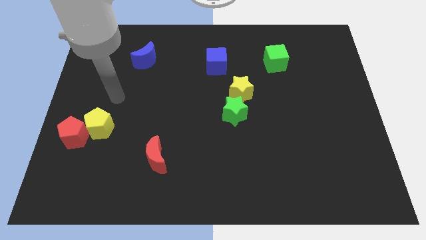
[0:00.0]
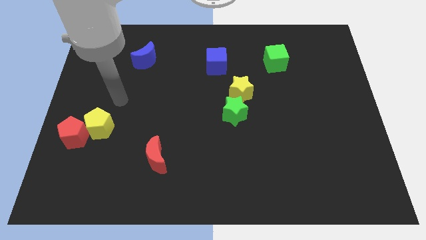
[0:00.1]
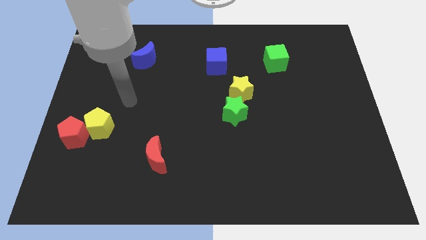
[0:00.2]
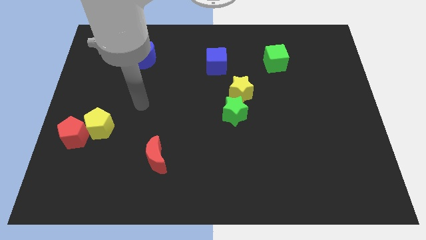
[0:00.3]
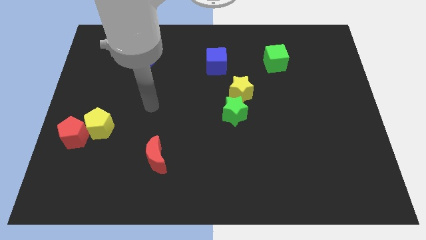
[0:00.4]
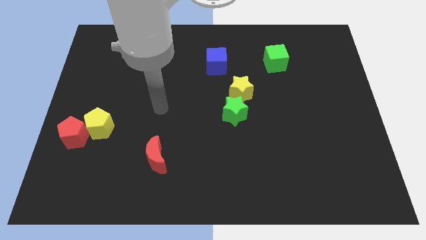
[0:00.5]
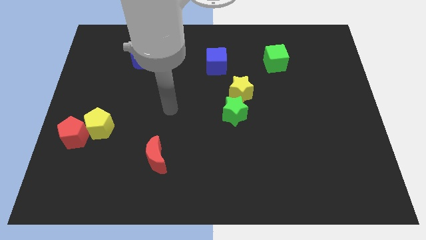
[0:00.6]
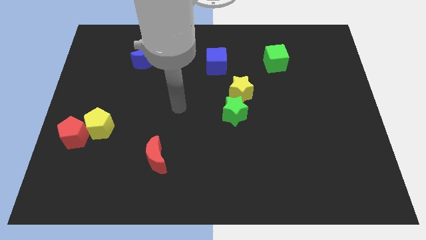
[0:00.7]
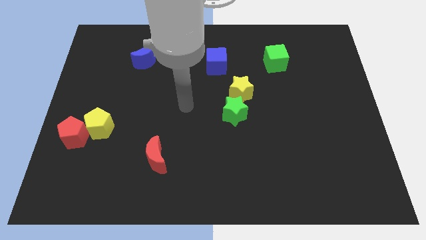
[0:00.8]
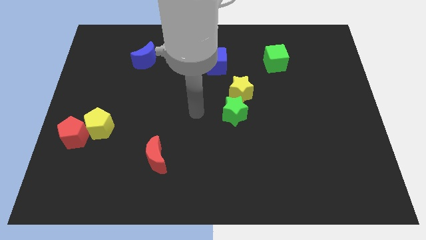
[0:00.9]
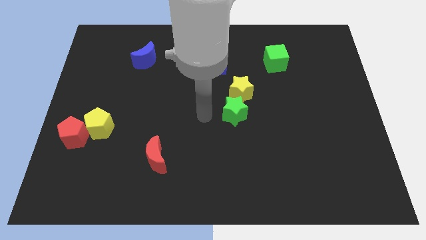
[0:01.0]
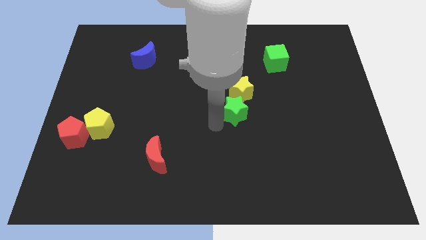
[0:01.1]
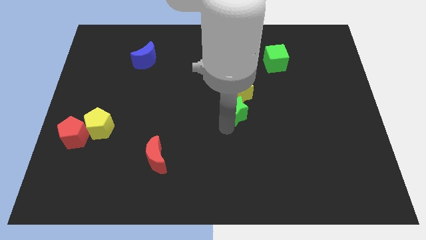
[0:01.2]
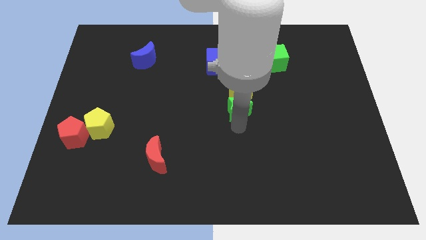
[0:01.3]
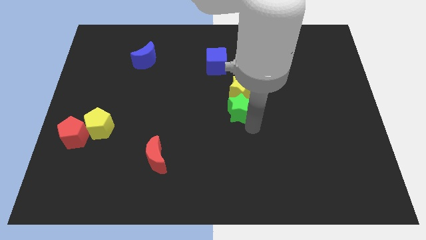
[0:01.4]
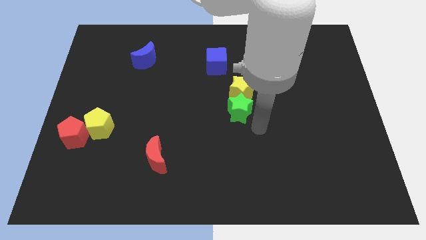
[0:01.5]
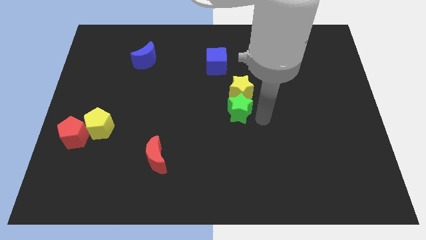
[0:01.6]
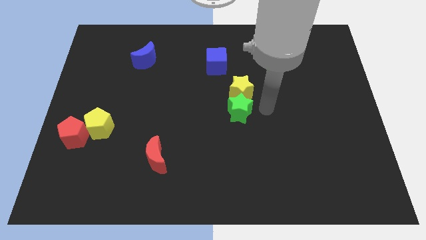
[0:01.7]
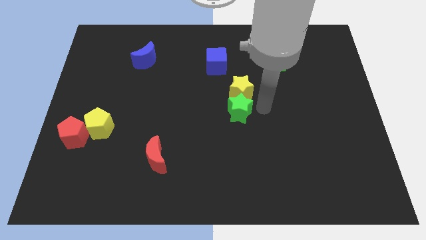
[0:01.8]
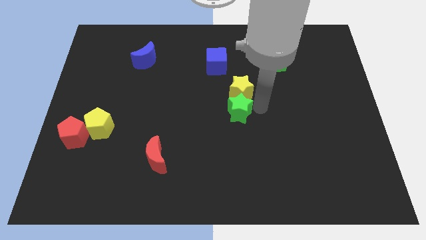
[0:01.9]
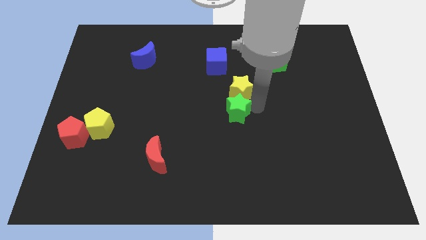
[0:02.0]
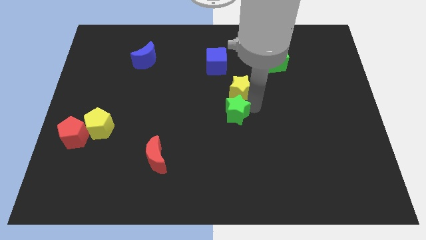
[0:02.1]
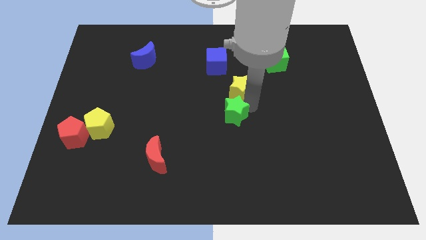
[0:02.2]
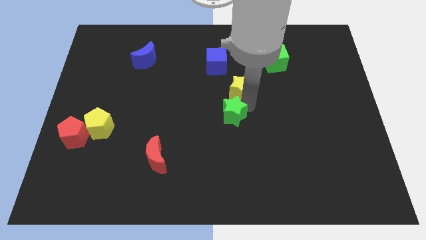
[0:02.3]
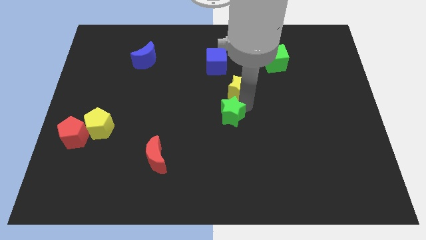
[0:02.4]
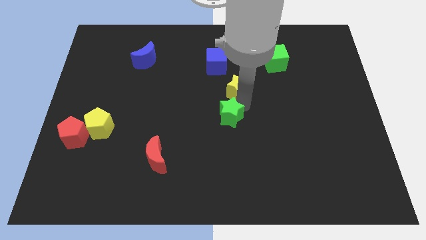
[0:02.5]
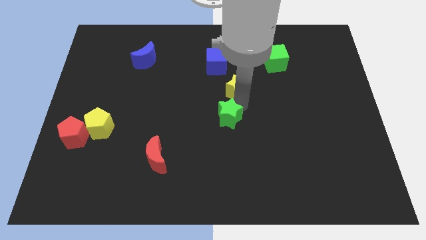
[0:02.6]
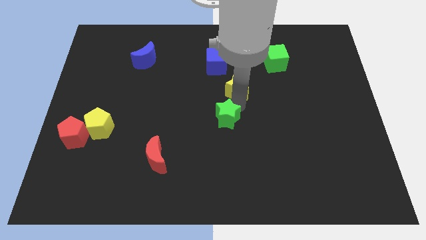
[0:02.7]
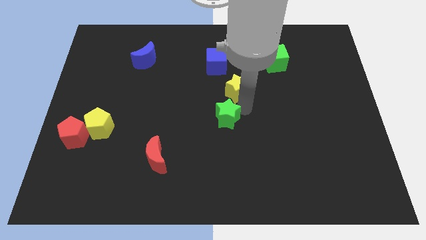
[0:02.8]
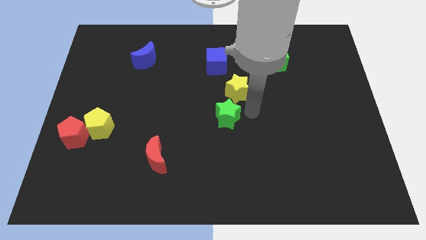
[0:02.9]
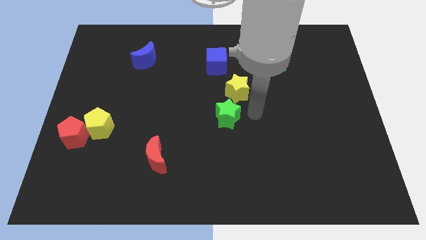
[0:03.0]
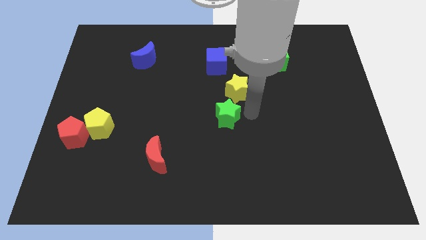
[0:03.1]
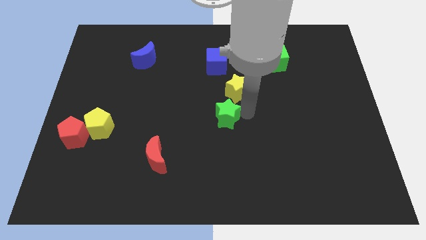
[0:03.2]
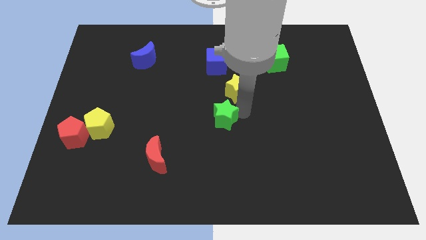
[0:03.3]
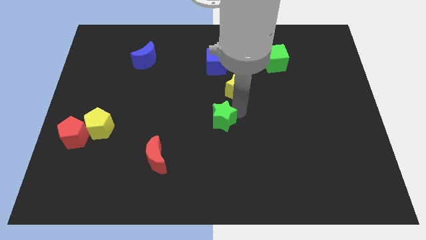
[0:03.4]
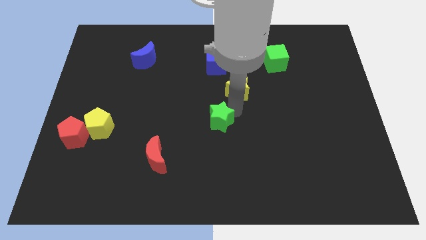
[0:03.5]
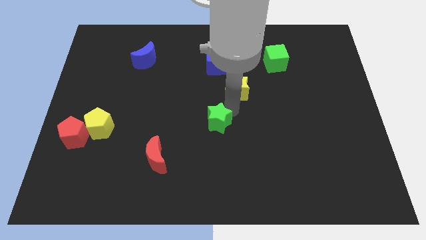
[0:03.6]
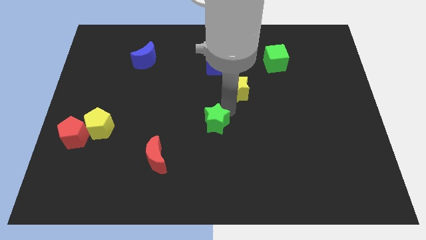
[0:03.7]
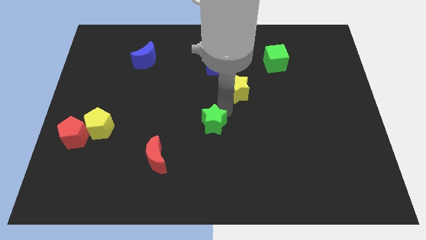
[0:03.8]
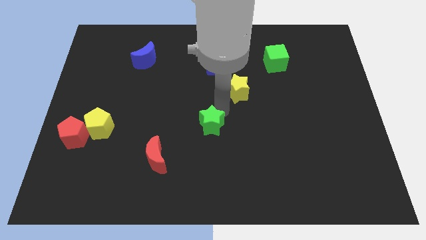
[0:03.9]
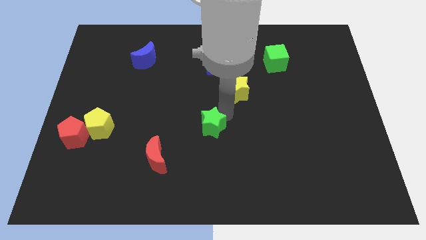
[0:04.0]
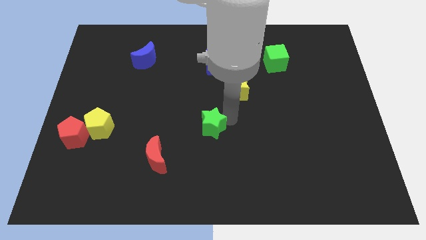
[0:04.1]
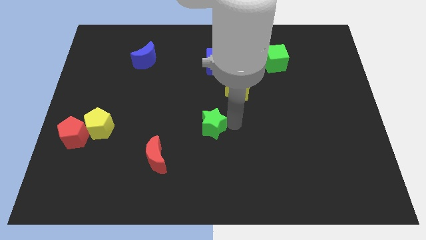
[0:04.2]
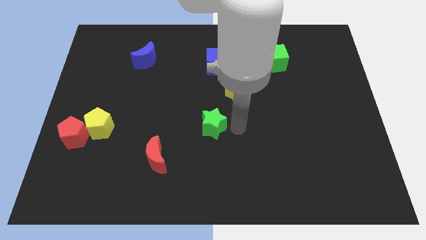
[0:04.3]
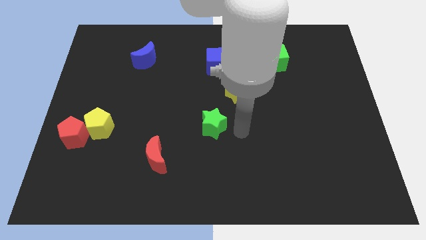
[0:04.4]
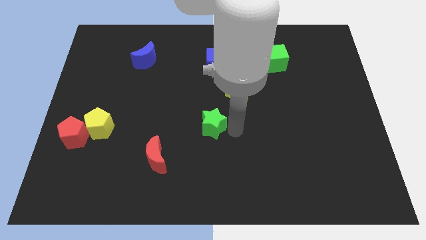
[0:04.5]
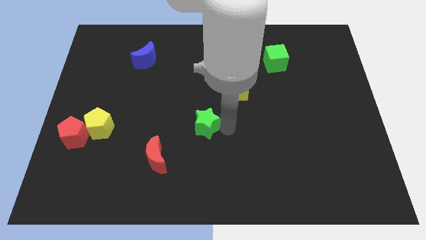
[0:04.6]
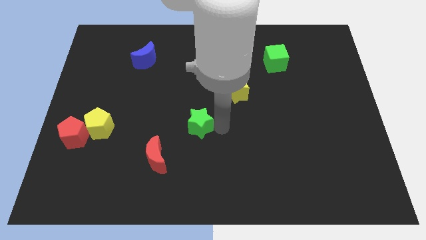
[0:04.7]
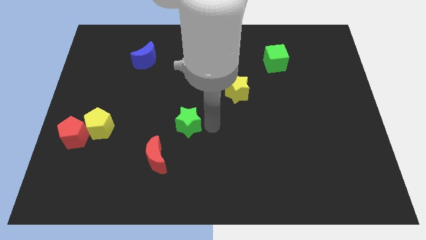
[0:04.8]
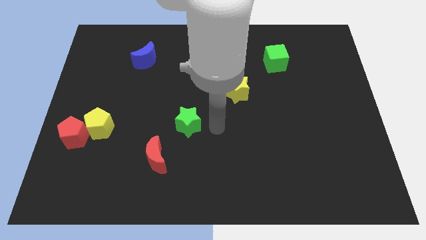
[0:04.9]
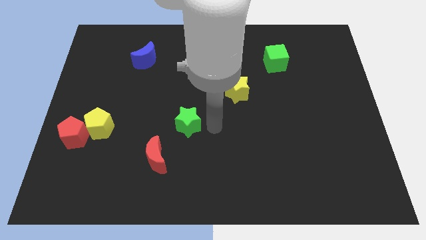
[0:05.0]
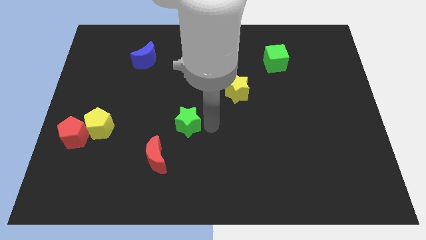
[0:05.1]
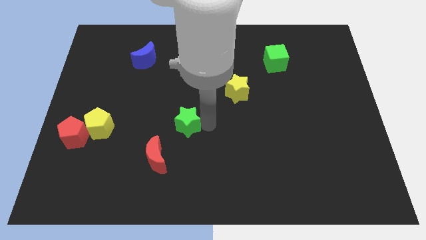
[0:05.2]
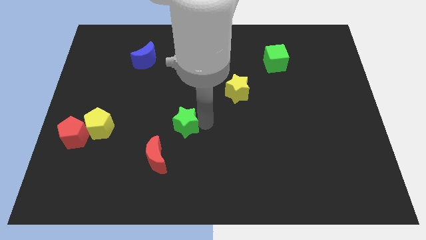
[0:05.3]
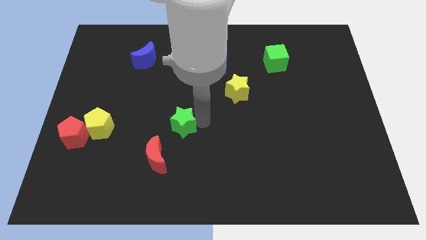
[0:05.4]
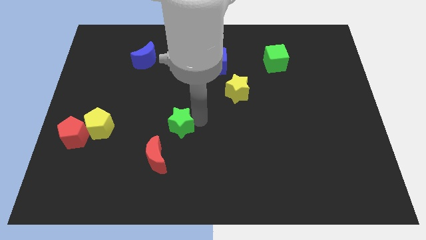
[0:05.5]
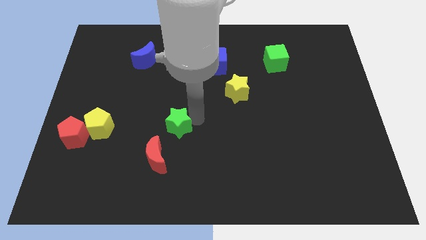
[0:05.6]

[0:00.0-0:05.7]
slide the green star to the top side of the red moon

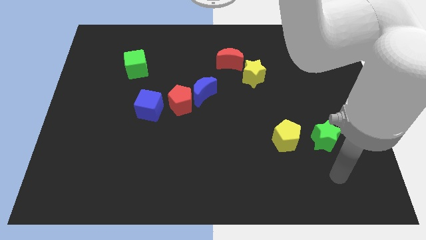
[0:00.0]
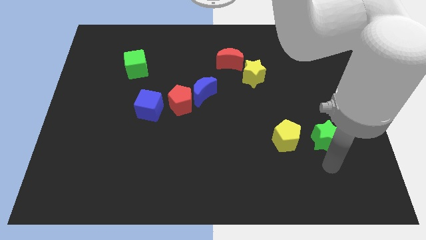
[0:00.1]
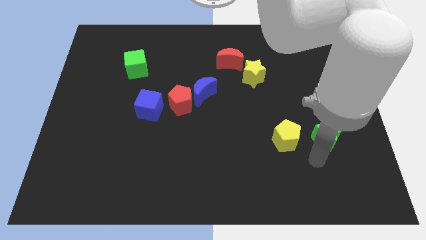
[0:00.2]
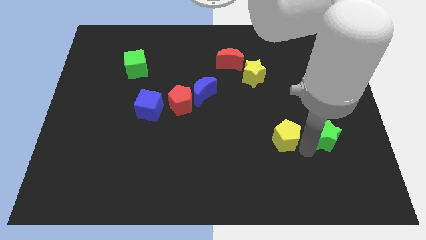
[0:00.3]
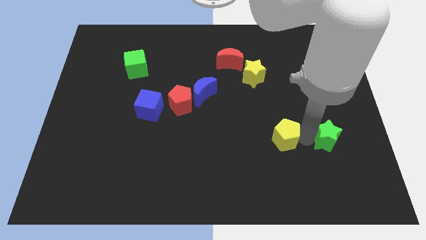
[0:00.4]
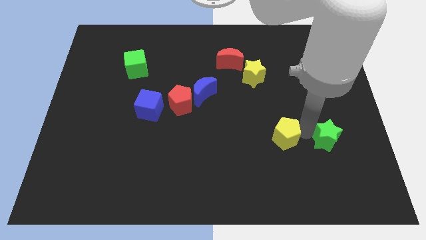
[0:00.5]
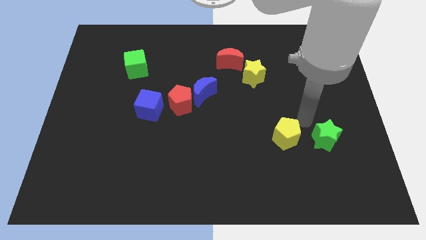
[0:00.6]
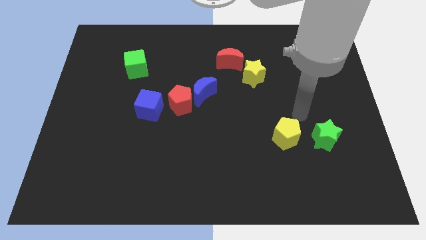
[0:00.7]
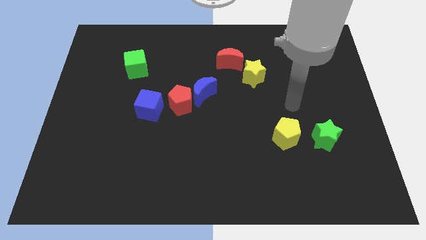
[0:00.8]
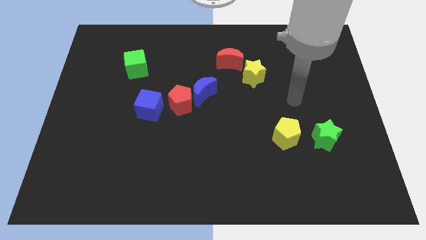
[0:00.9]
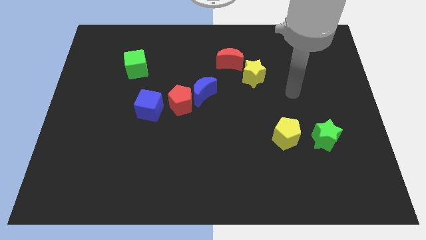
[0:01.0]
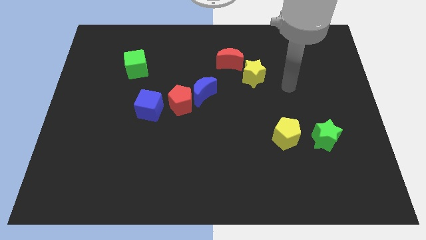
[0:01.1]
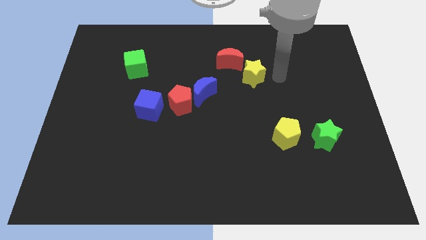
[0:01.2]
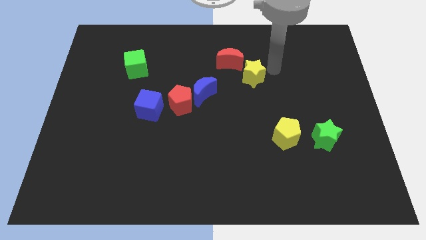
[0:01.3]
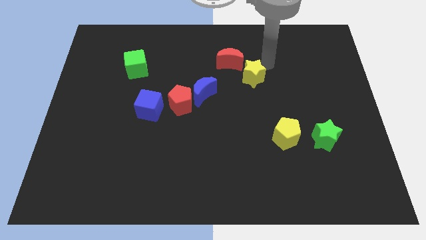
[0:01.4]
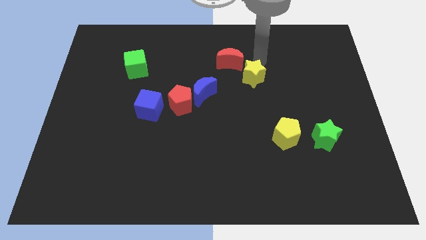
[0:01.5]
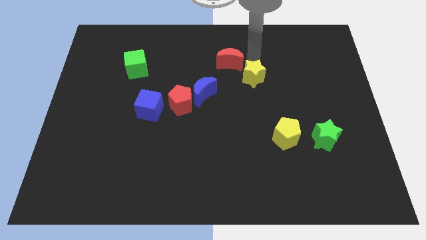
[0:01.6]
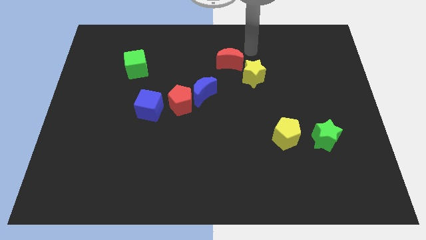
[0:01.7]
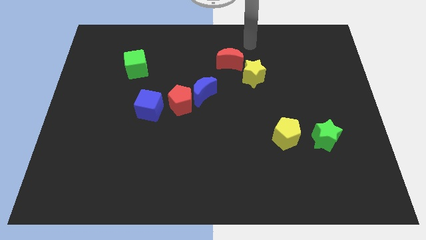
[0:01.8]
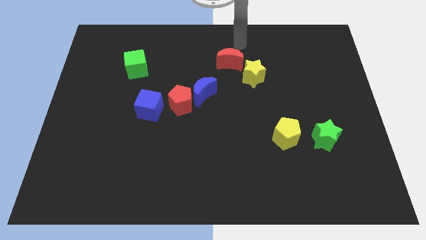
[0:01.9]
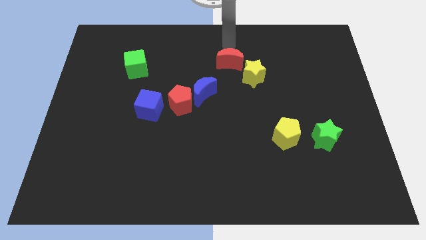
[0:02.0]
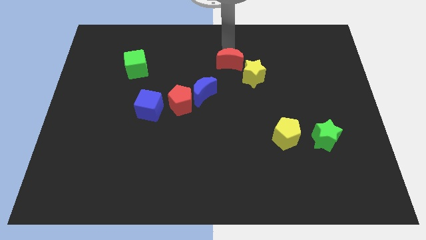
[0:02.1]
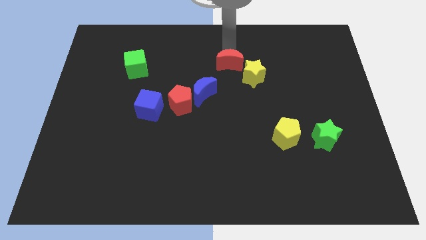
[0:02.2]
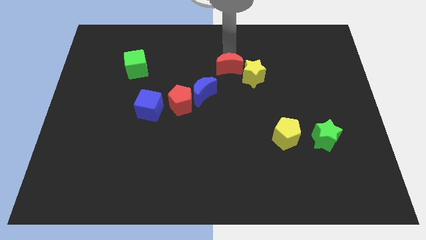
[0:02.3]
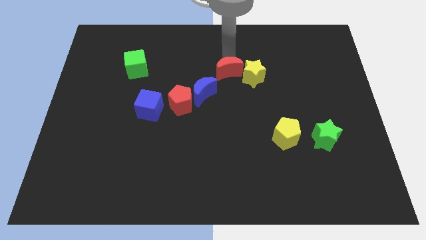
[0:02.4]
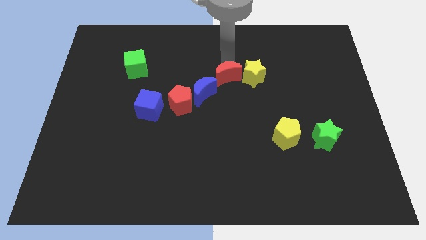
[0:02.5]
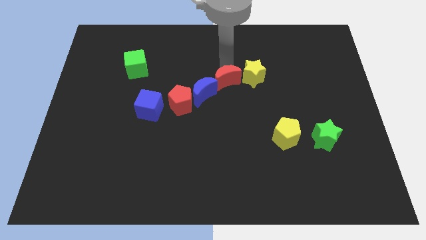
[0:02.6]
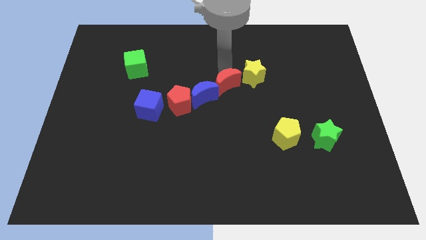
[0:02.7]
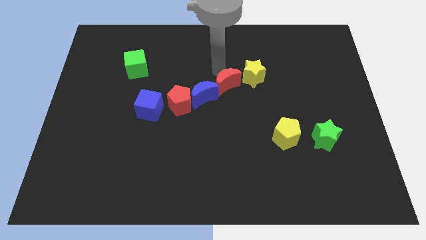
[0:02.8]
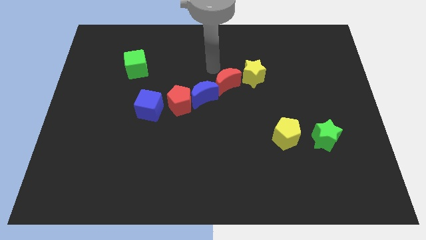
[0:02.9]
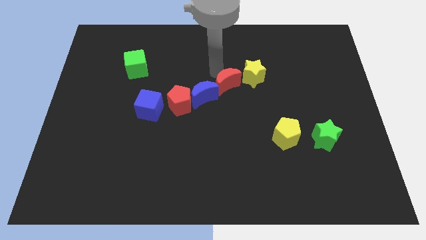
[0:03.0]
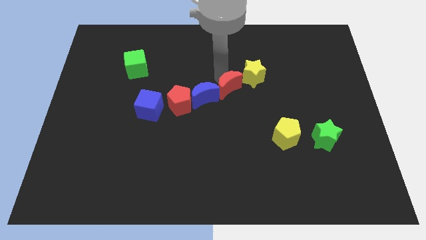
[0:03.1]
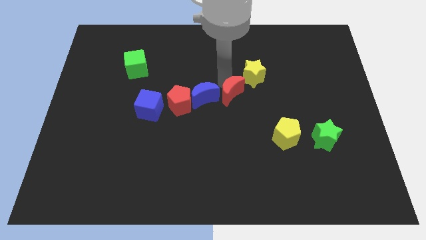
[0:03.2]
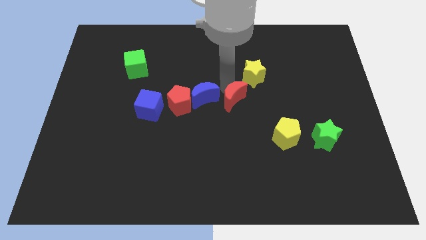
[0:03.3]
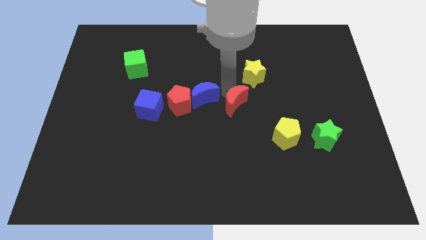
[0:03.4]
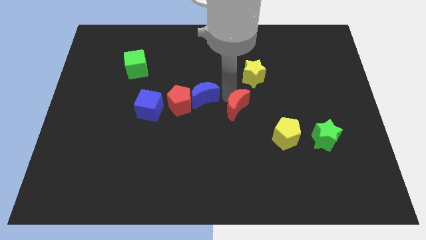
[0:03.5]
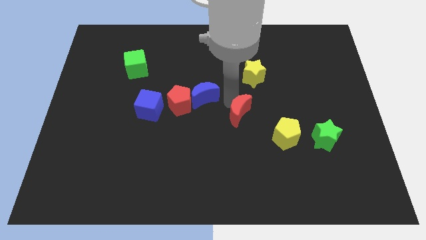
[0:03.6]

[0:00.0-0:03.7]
move the red moon to the top left of the yellow pentagon
